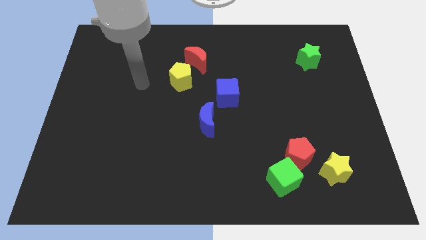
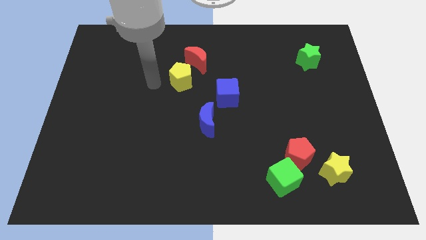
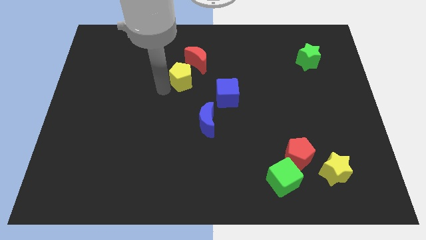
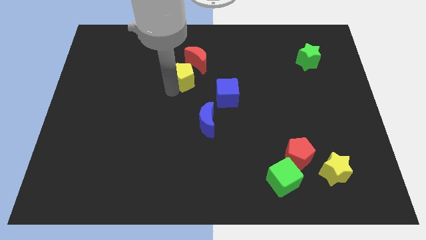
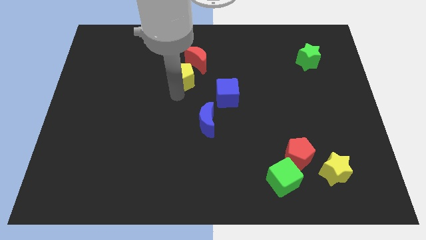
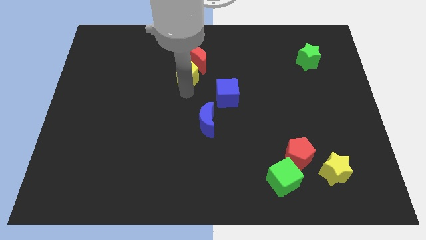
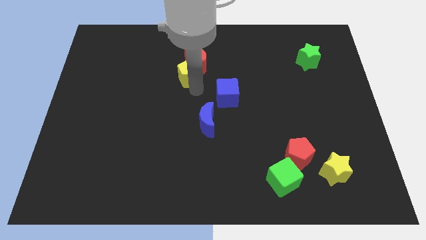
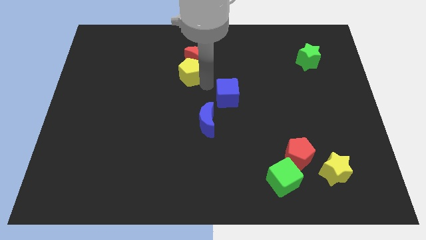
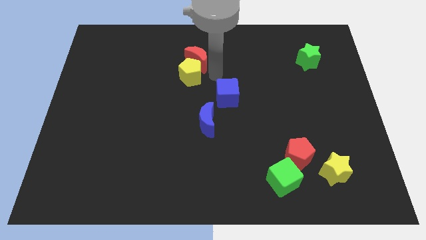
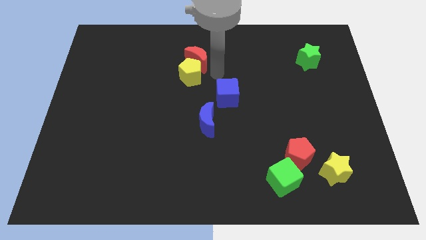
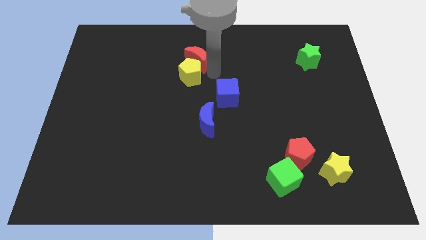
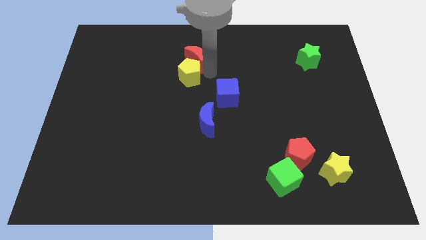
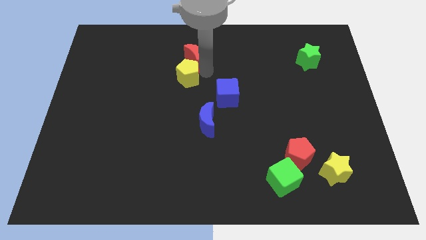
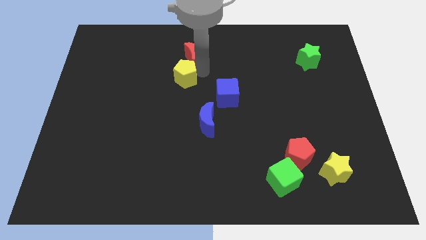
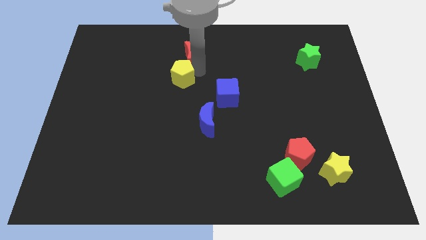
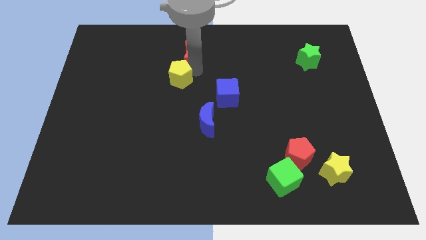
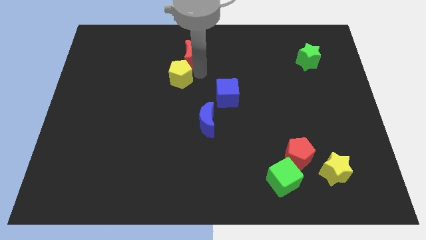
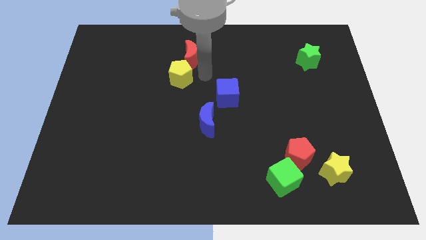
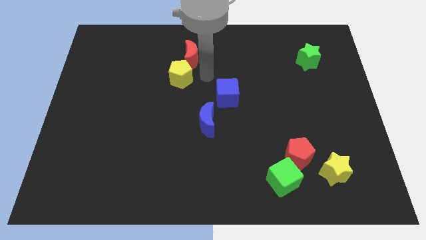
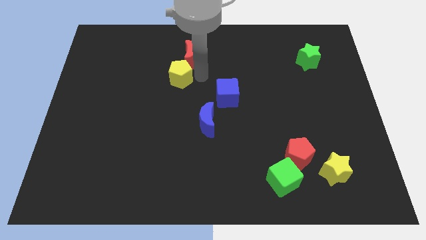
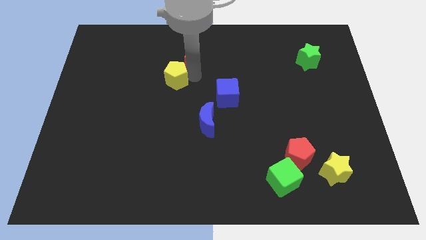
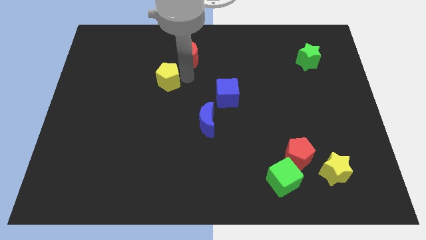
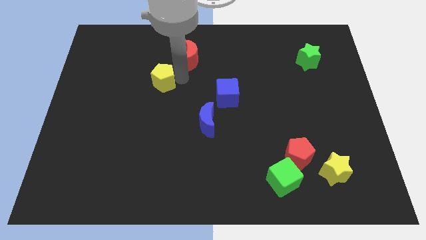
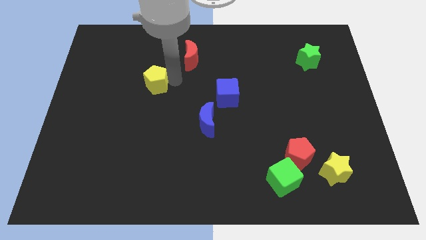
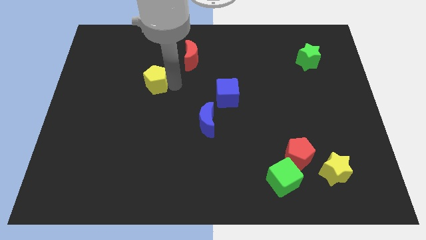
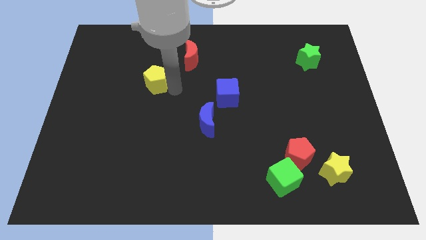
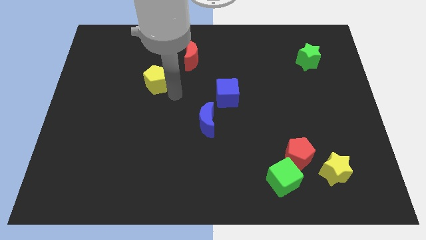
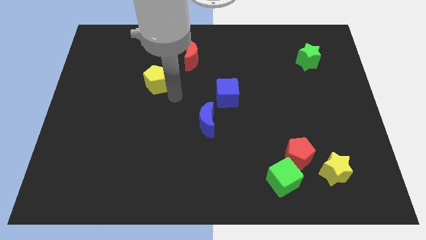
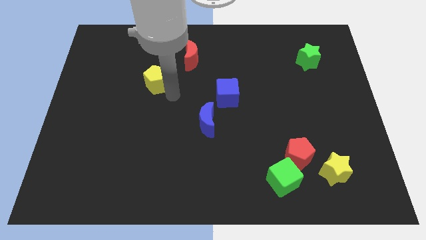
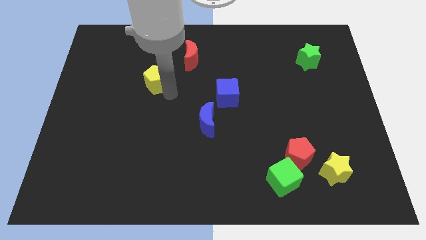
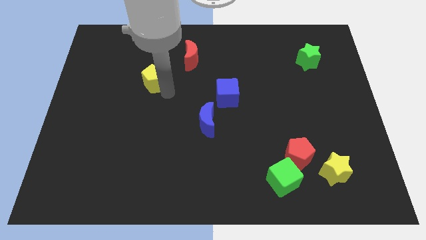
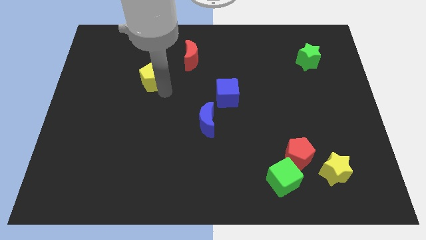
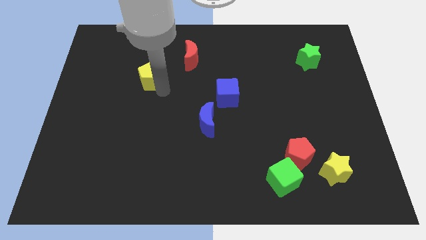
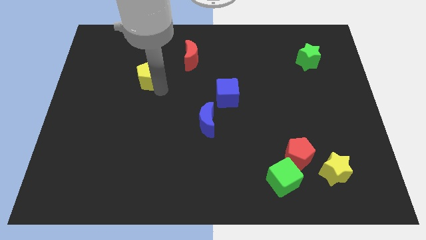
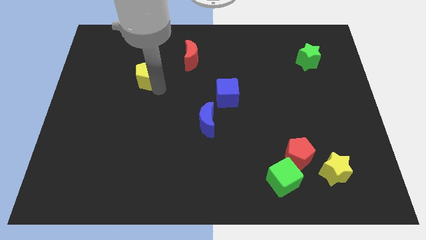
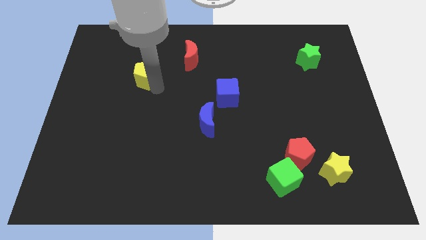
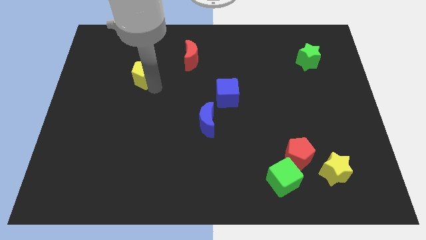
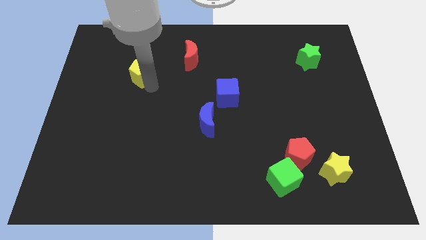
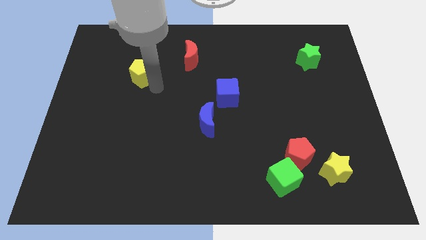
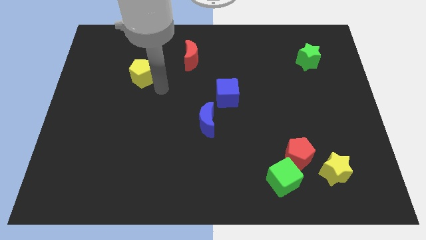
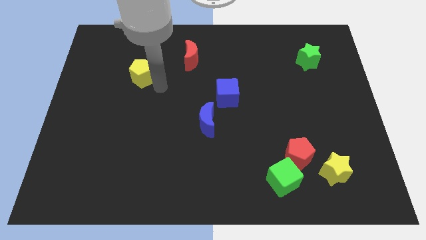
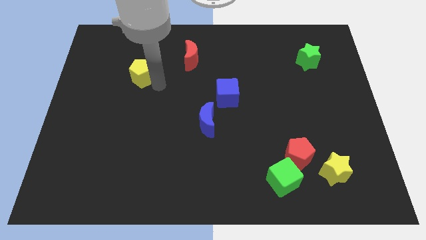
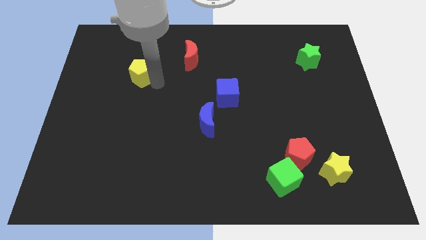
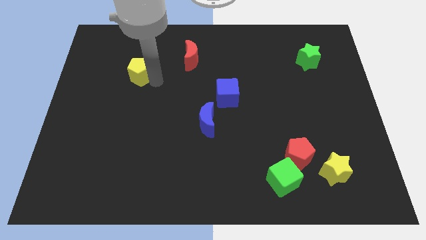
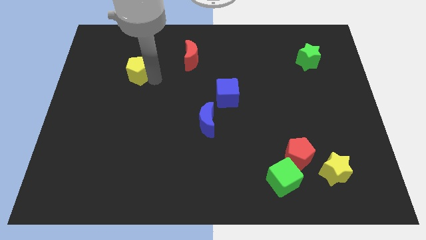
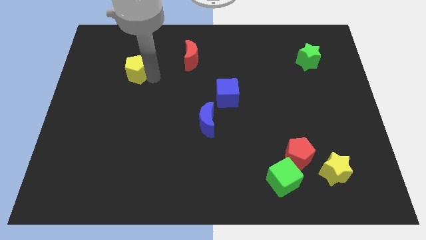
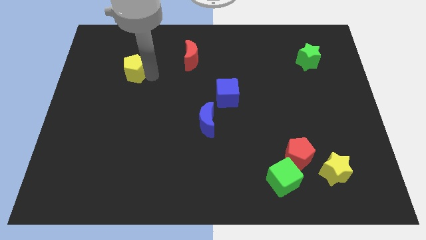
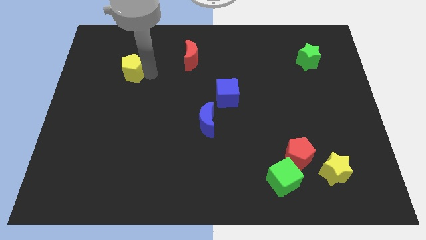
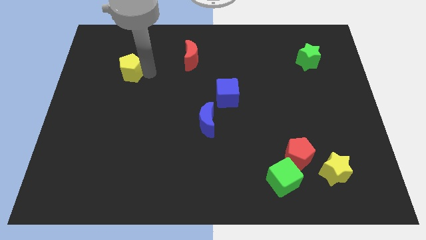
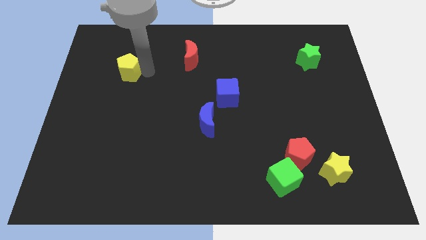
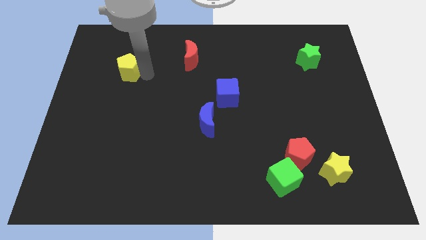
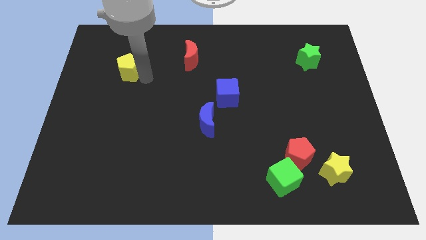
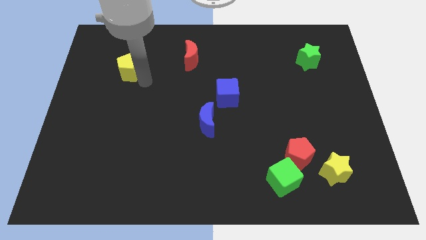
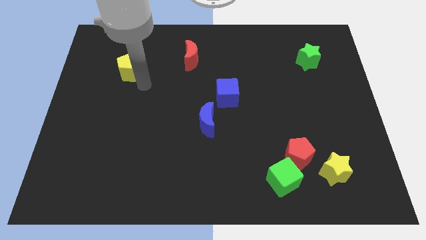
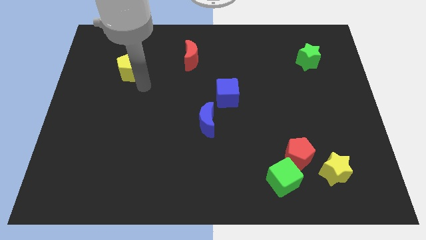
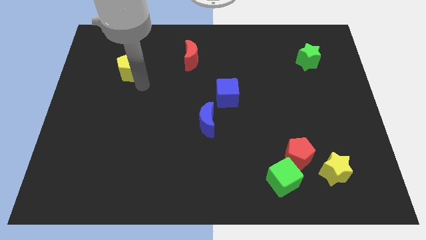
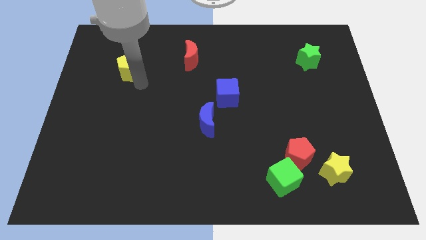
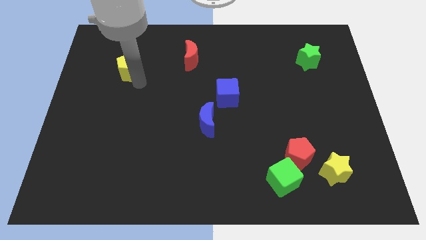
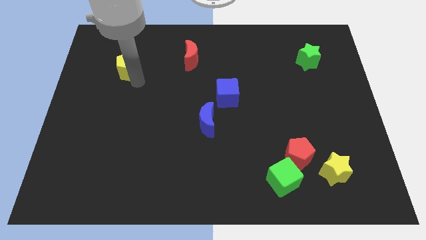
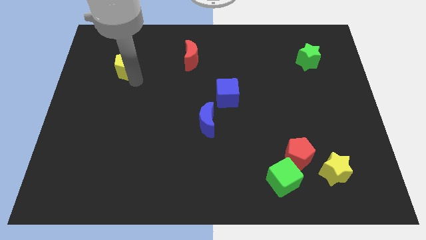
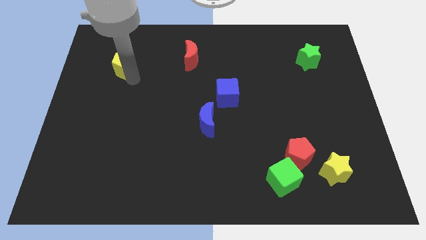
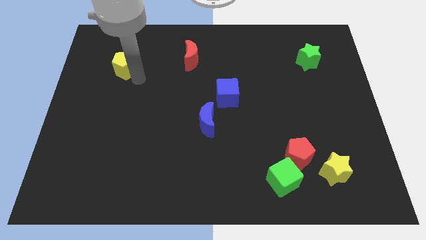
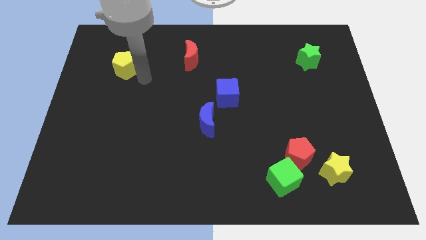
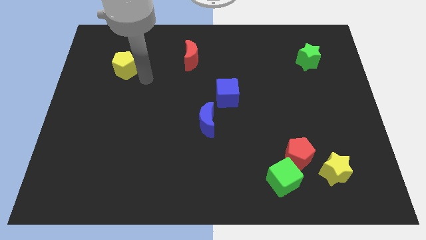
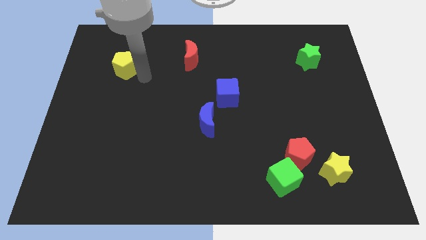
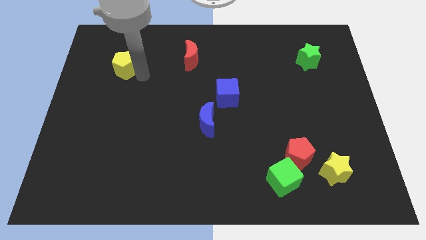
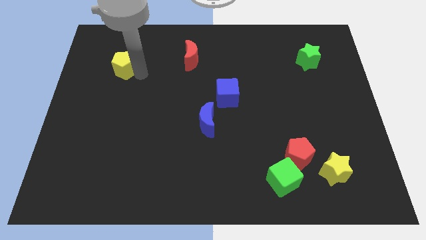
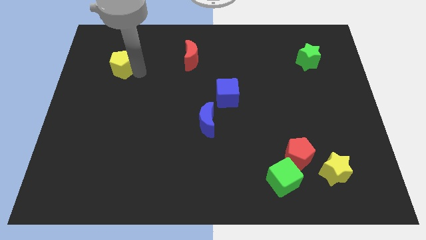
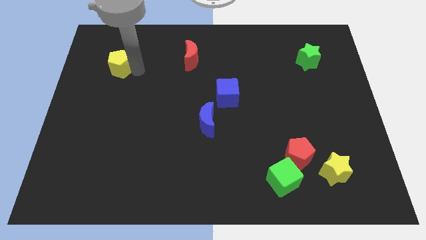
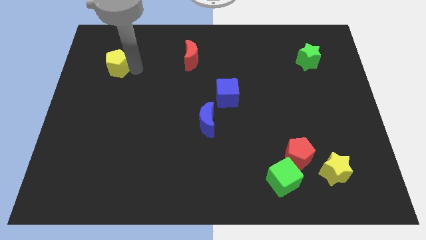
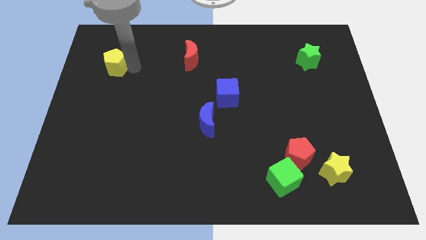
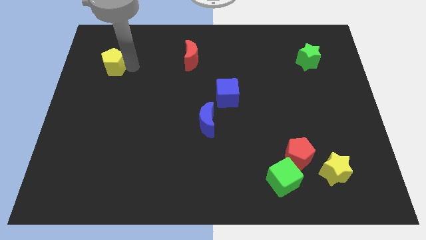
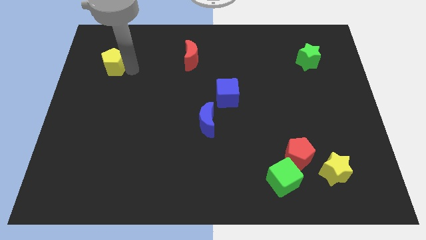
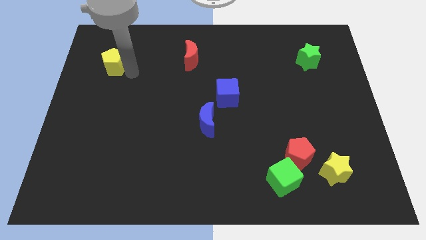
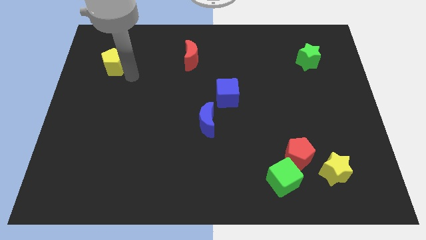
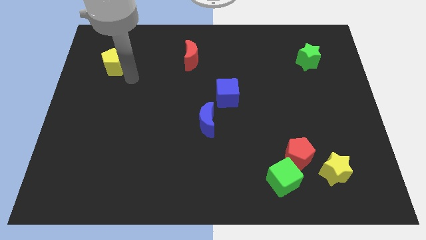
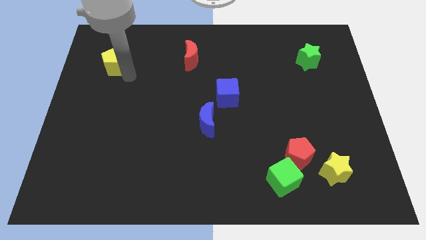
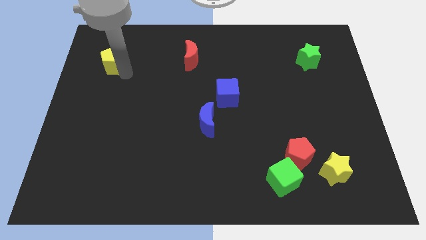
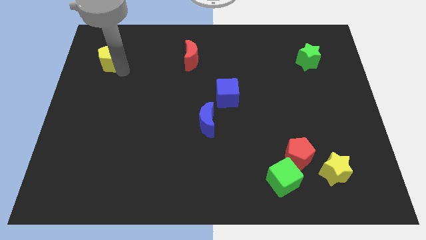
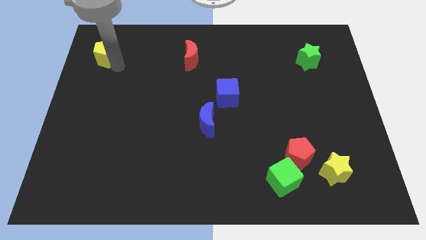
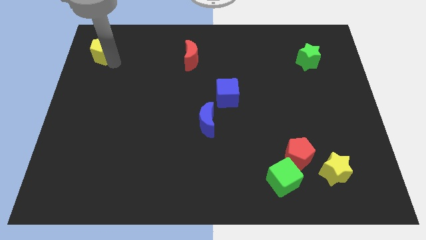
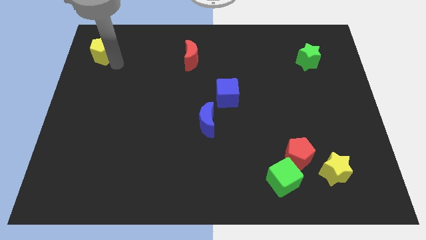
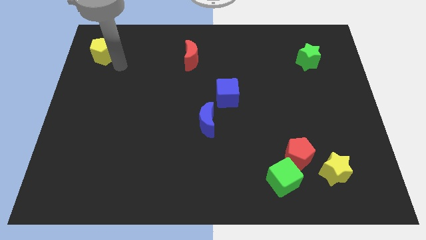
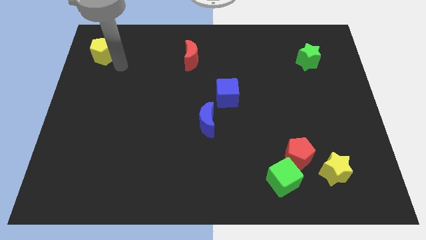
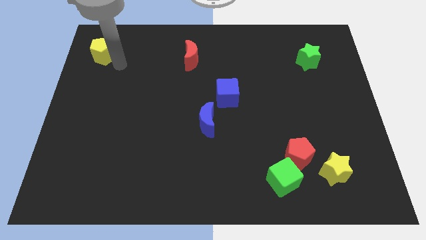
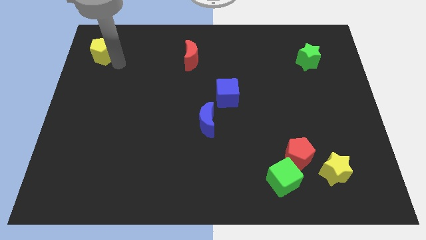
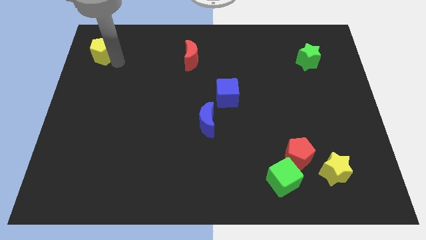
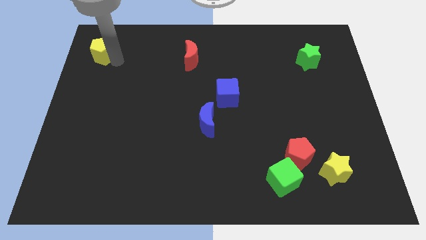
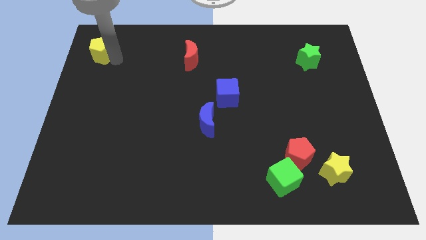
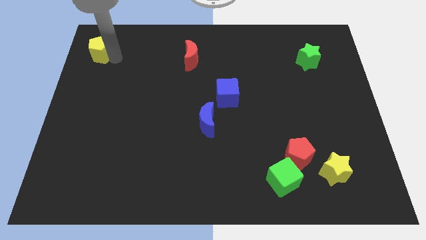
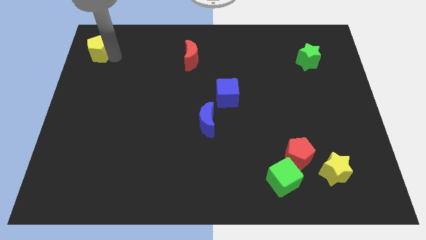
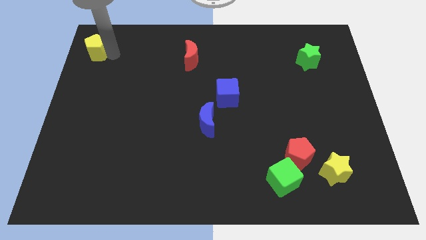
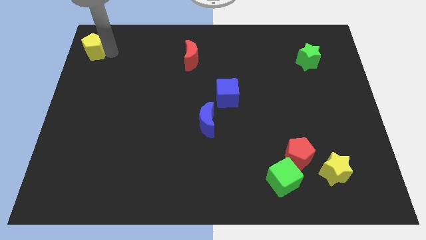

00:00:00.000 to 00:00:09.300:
push the yellow pentagon to the top left
